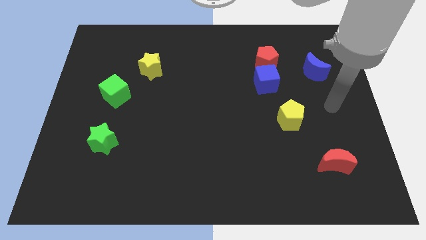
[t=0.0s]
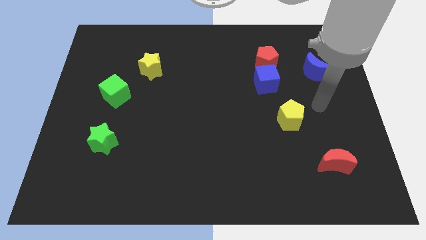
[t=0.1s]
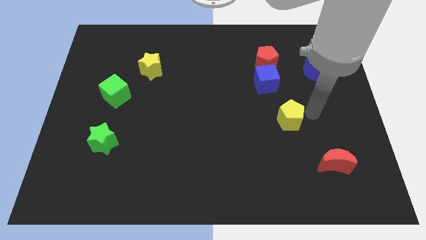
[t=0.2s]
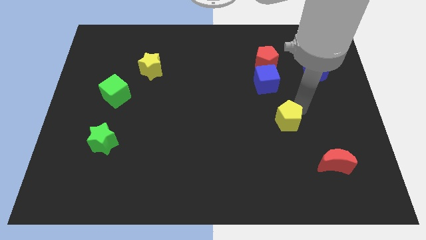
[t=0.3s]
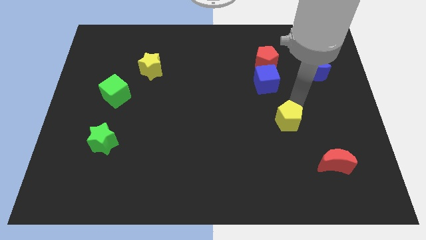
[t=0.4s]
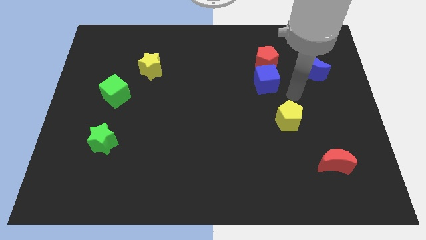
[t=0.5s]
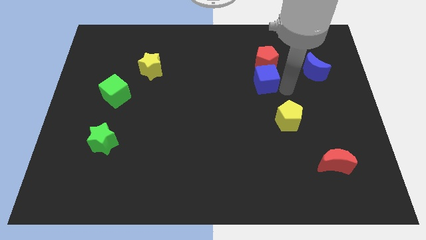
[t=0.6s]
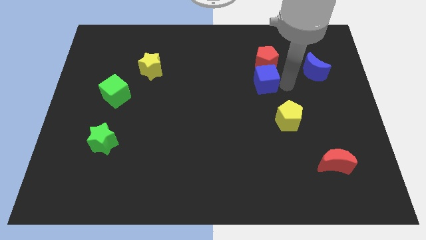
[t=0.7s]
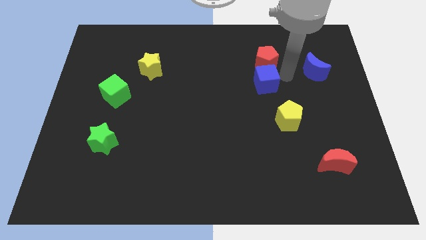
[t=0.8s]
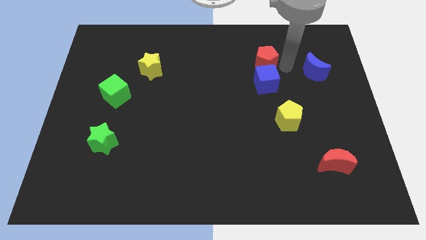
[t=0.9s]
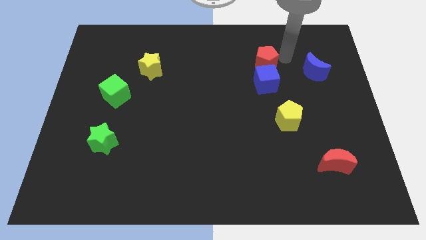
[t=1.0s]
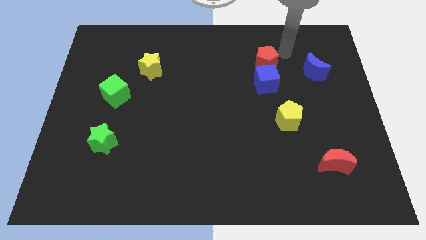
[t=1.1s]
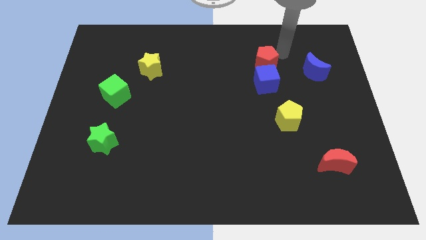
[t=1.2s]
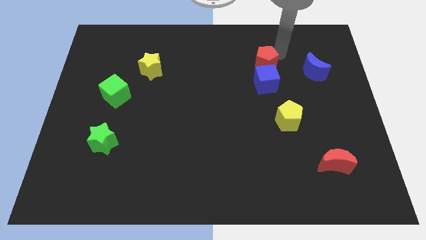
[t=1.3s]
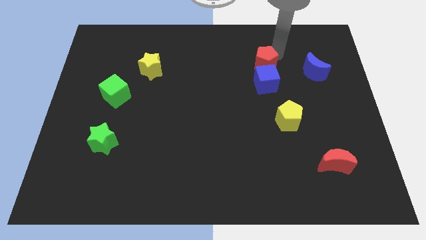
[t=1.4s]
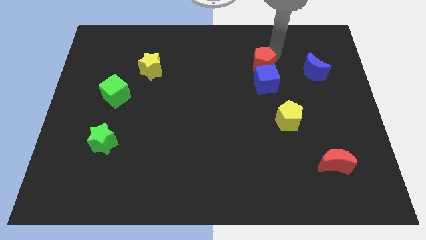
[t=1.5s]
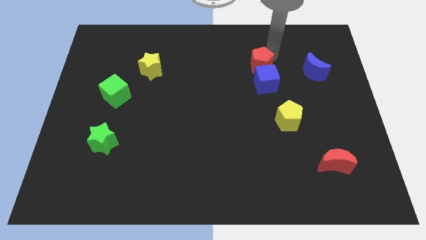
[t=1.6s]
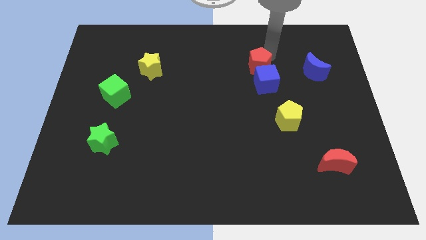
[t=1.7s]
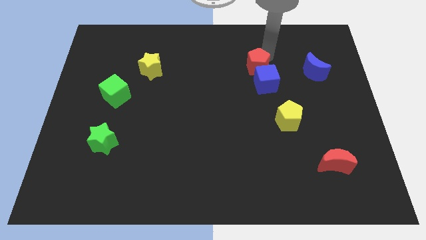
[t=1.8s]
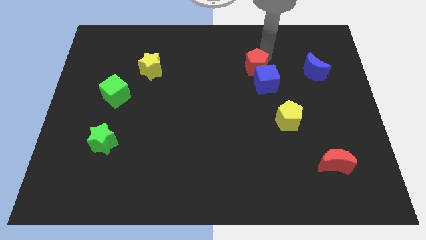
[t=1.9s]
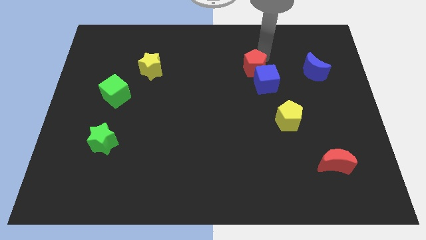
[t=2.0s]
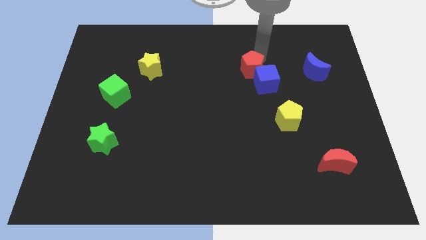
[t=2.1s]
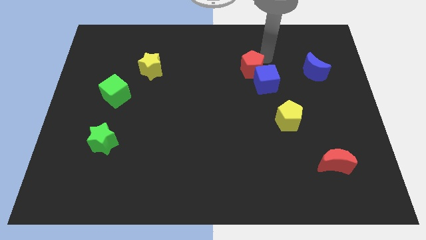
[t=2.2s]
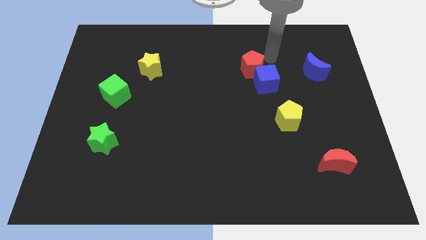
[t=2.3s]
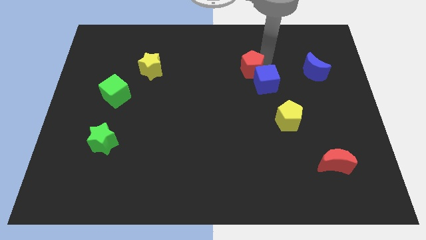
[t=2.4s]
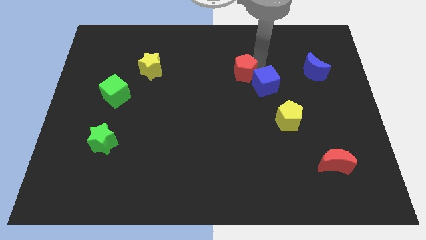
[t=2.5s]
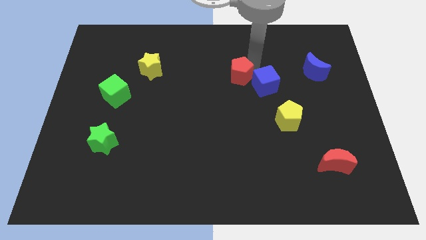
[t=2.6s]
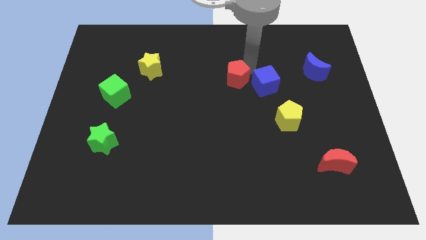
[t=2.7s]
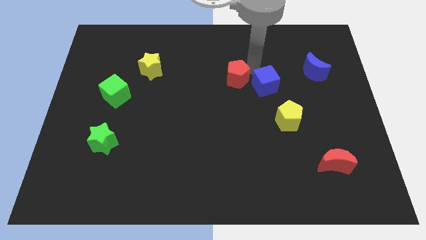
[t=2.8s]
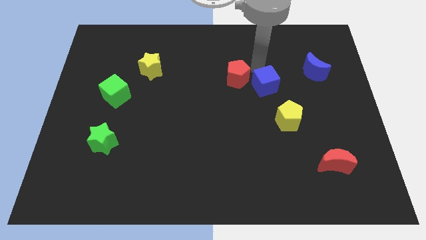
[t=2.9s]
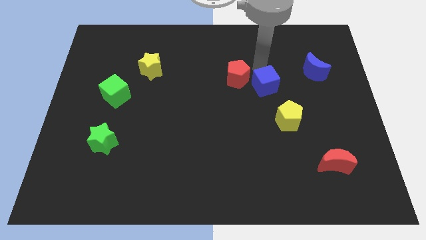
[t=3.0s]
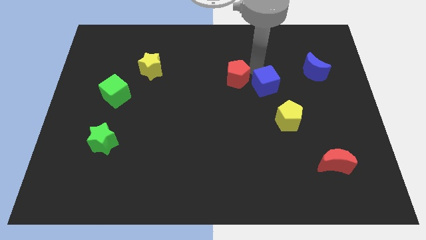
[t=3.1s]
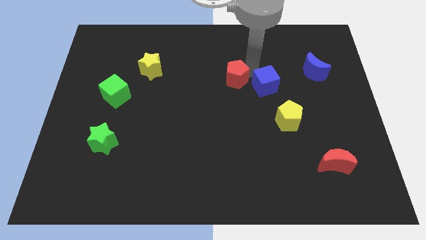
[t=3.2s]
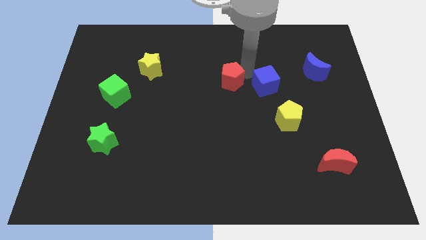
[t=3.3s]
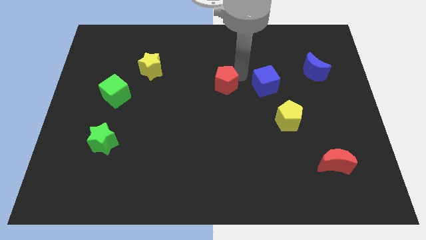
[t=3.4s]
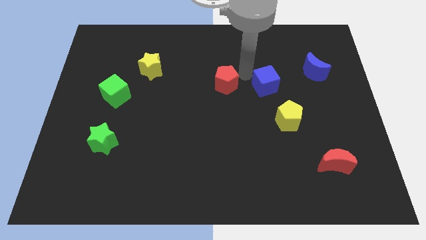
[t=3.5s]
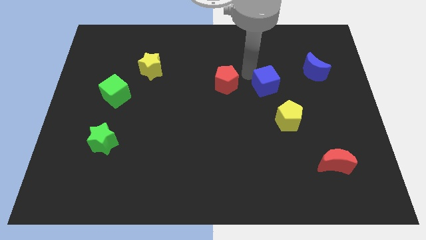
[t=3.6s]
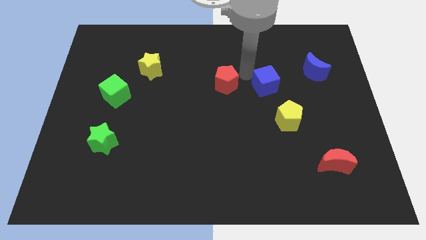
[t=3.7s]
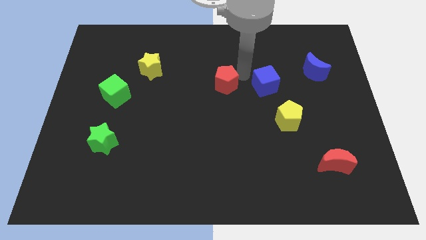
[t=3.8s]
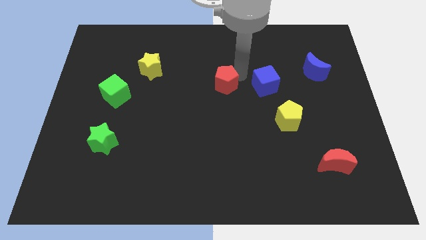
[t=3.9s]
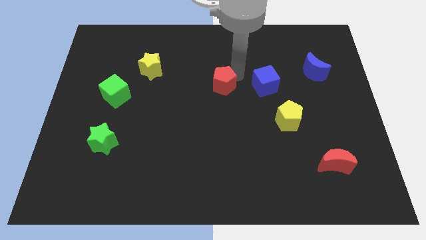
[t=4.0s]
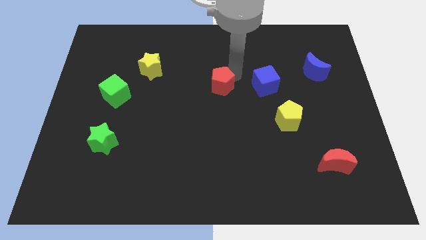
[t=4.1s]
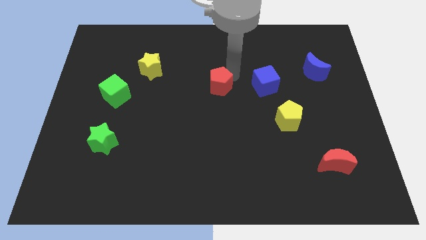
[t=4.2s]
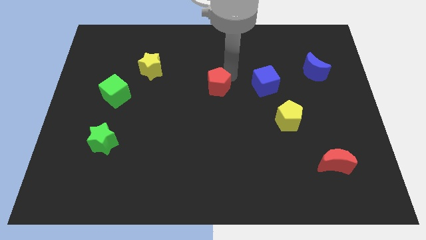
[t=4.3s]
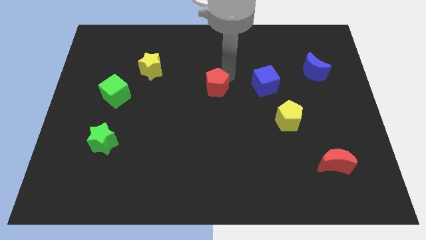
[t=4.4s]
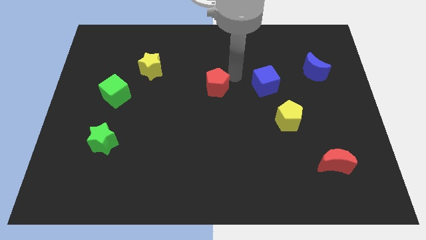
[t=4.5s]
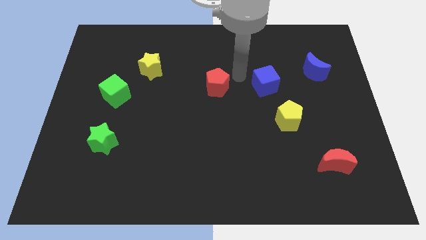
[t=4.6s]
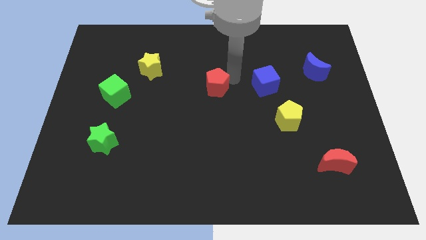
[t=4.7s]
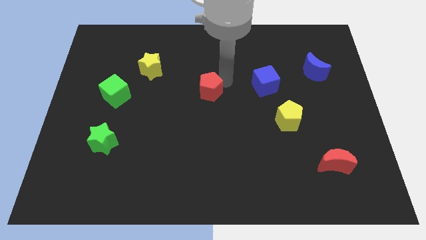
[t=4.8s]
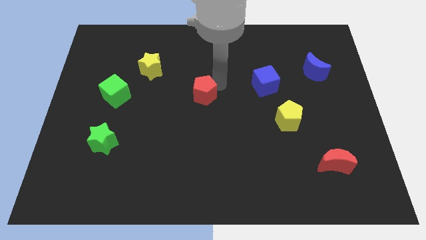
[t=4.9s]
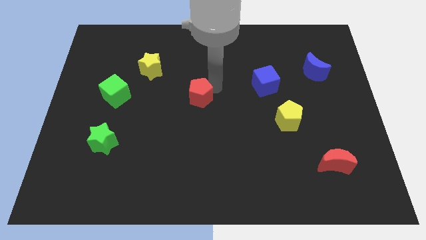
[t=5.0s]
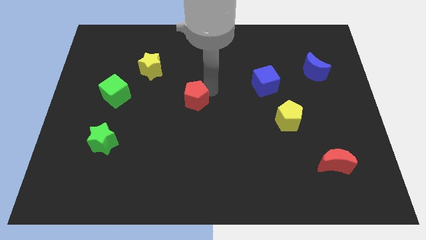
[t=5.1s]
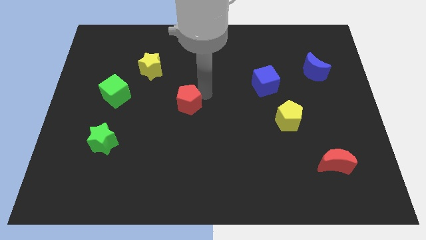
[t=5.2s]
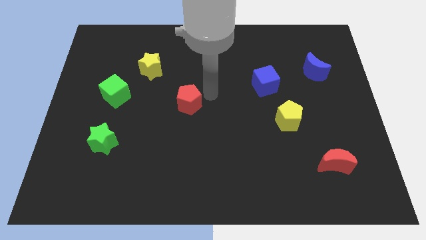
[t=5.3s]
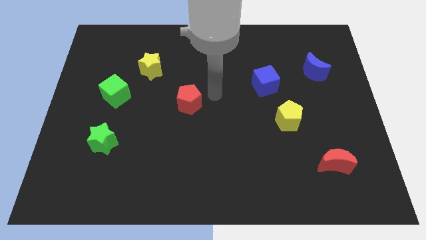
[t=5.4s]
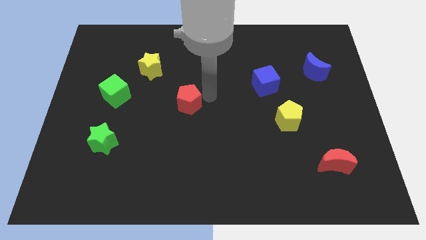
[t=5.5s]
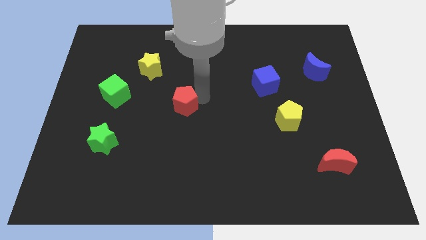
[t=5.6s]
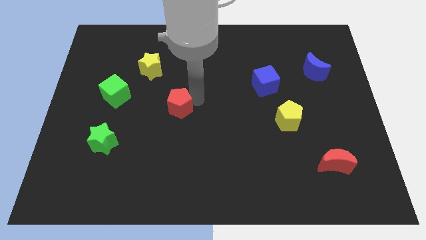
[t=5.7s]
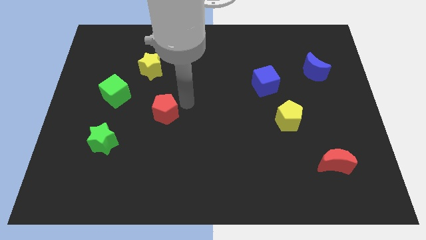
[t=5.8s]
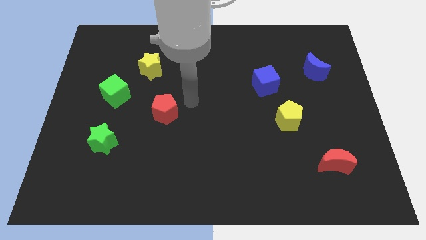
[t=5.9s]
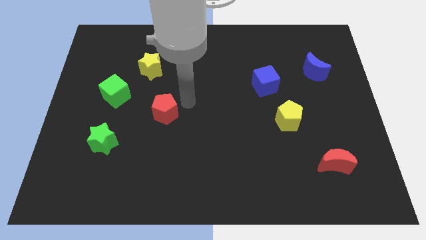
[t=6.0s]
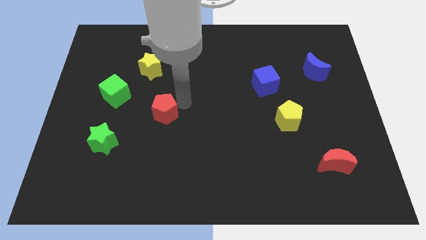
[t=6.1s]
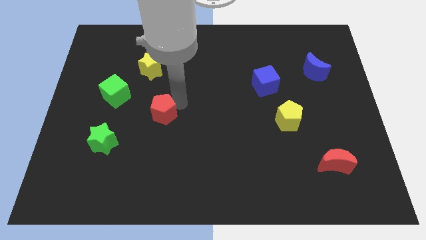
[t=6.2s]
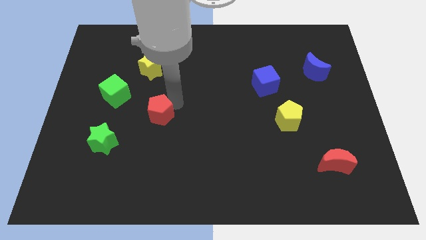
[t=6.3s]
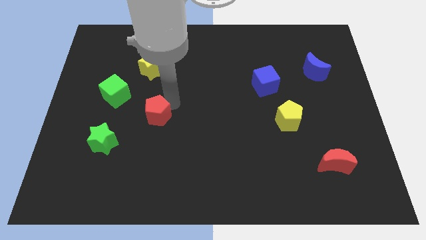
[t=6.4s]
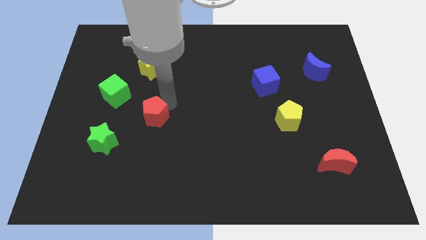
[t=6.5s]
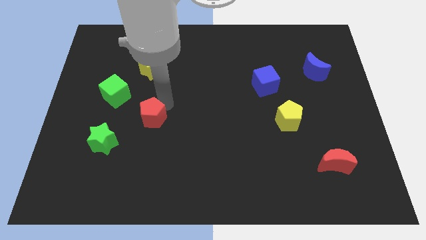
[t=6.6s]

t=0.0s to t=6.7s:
push the red pentagon diagonally up and to the right of the green star
